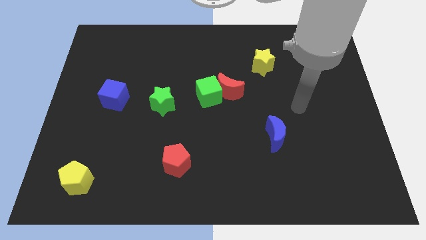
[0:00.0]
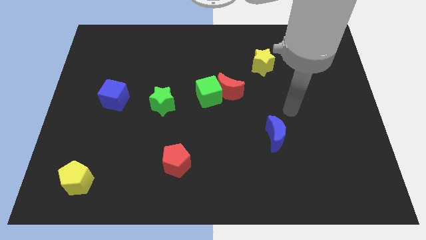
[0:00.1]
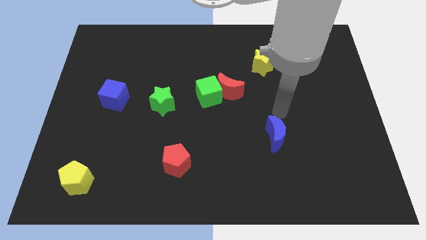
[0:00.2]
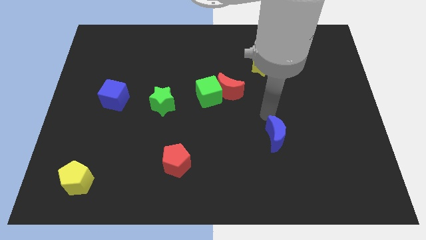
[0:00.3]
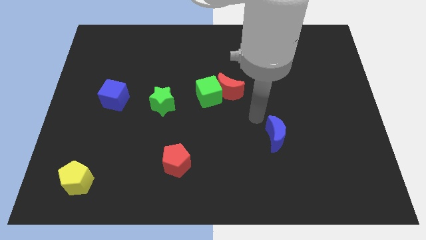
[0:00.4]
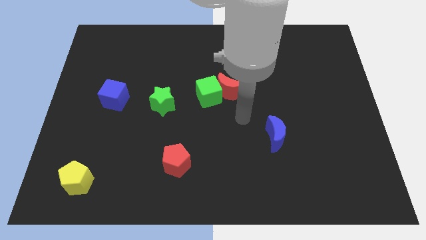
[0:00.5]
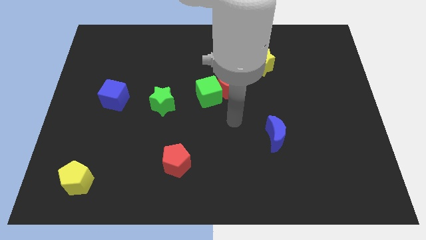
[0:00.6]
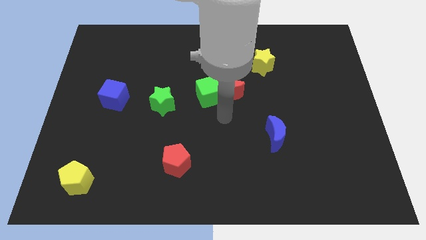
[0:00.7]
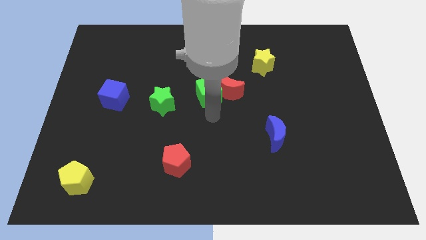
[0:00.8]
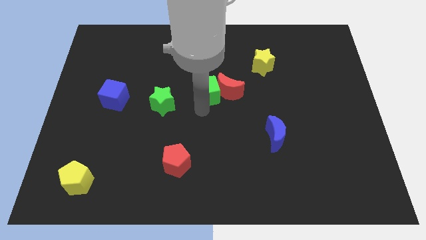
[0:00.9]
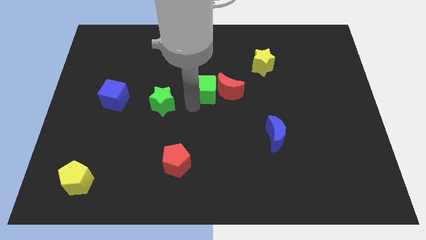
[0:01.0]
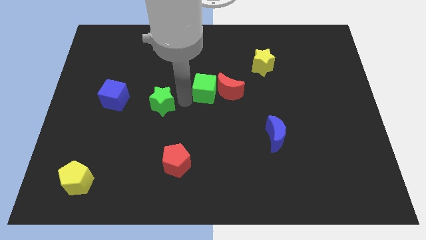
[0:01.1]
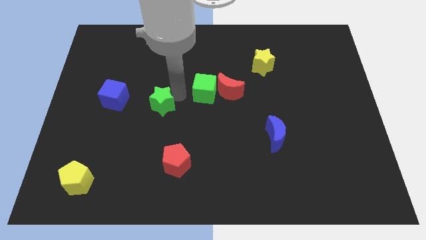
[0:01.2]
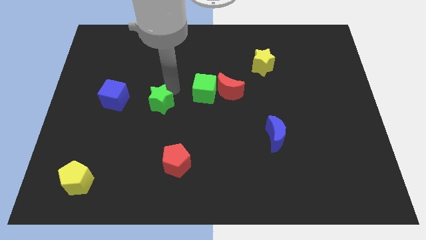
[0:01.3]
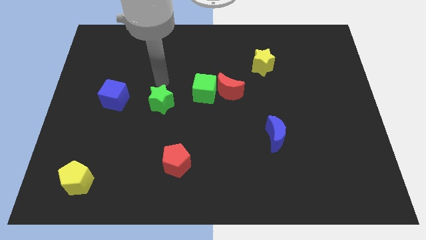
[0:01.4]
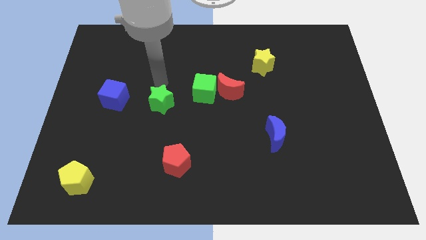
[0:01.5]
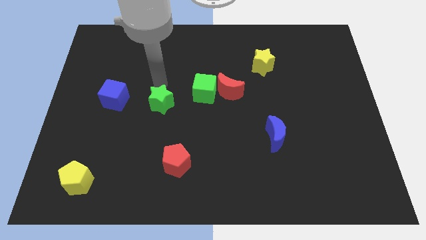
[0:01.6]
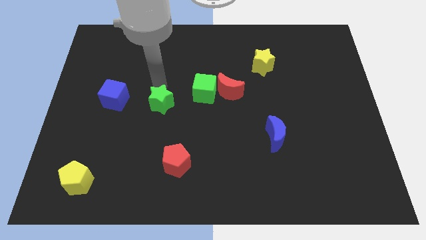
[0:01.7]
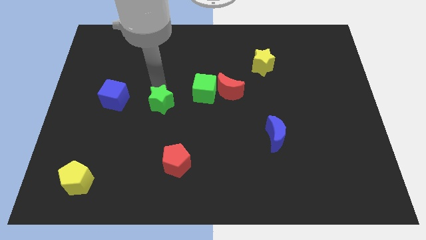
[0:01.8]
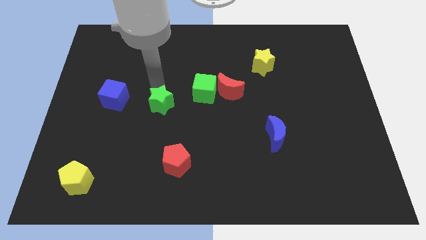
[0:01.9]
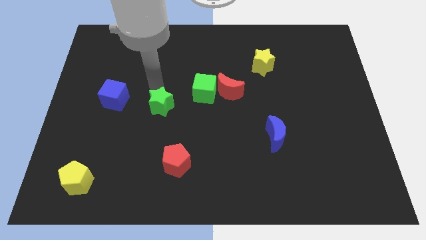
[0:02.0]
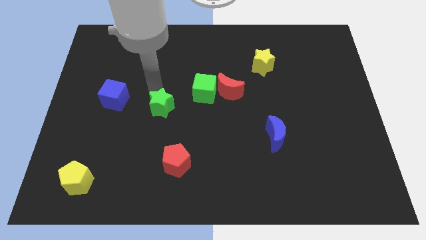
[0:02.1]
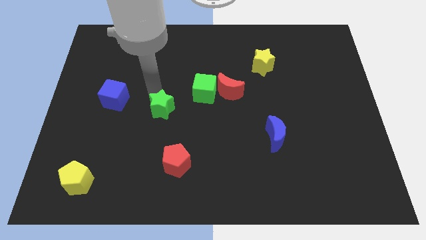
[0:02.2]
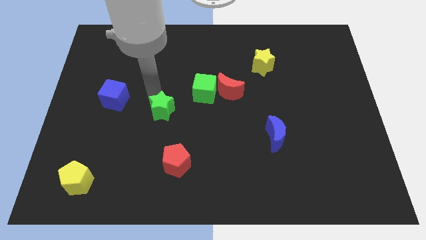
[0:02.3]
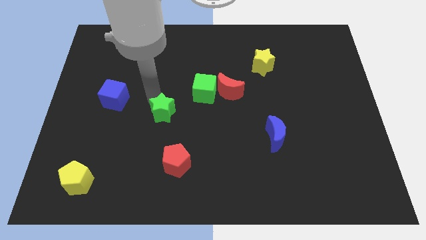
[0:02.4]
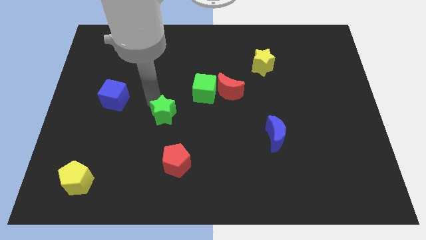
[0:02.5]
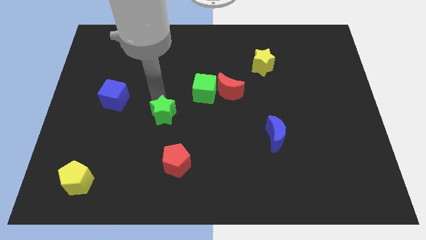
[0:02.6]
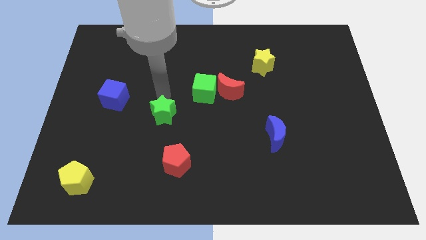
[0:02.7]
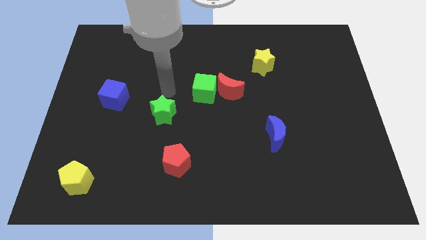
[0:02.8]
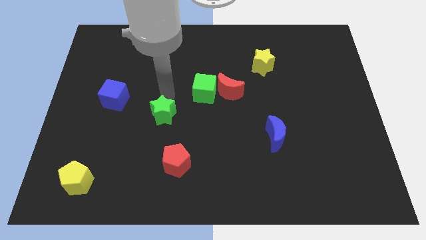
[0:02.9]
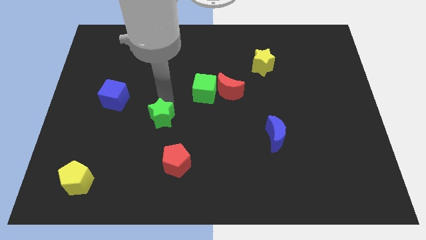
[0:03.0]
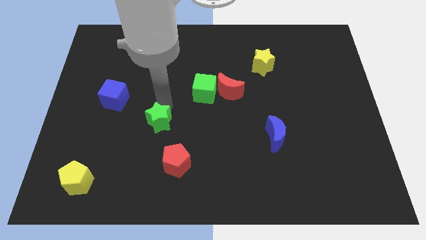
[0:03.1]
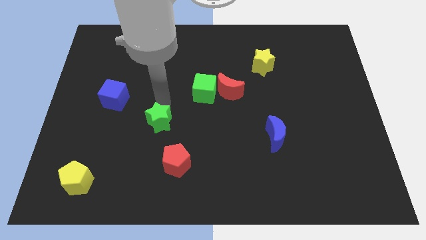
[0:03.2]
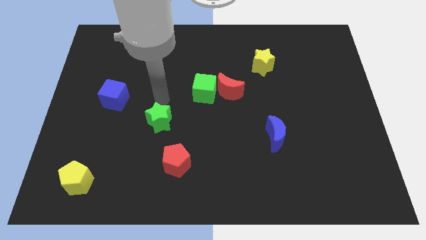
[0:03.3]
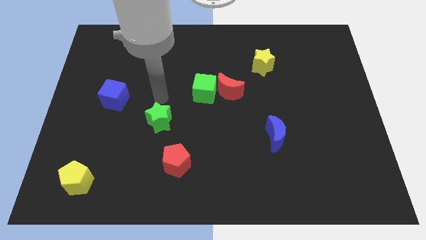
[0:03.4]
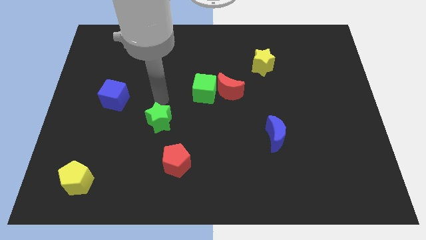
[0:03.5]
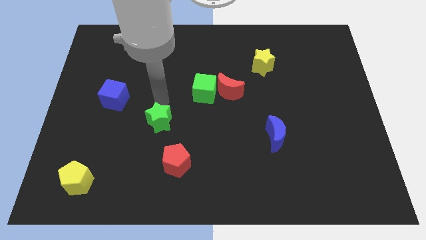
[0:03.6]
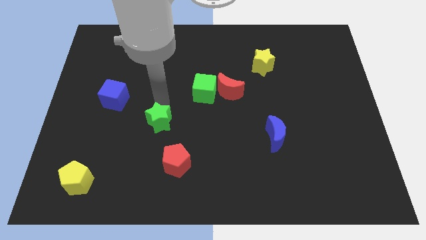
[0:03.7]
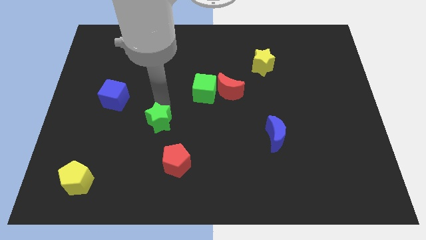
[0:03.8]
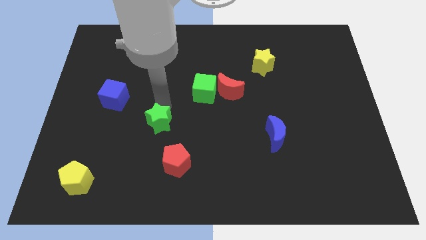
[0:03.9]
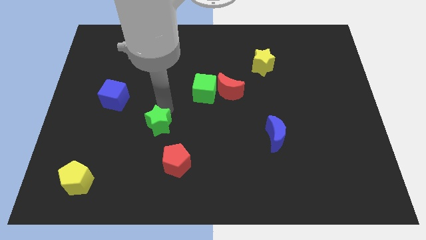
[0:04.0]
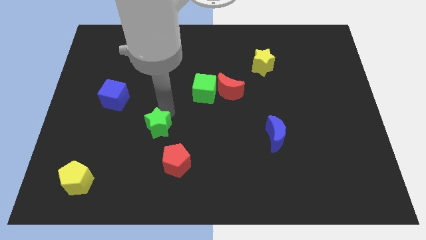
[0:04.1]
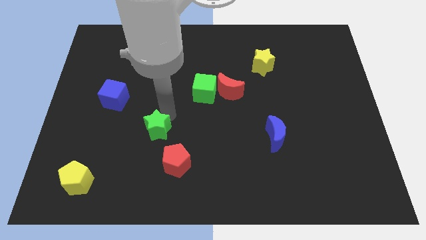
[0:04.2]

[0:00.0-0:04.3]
move the green star somewhat downwards

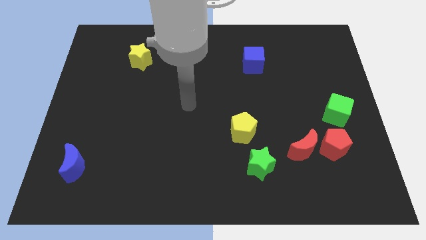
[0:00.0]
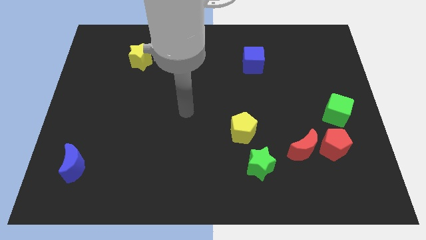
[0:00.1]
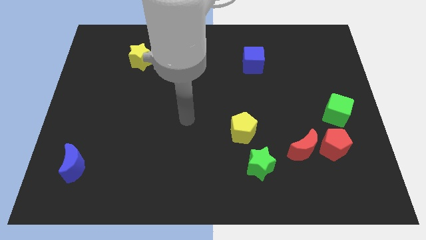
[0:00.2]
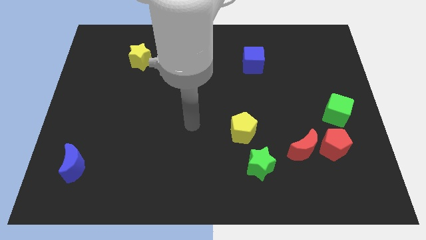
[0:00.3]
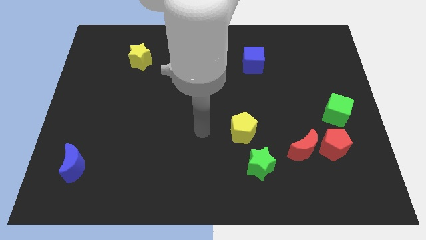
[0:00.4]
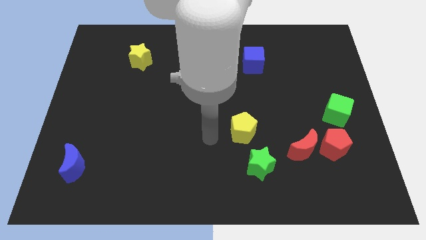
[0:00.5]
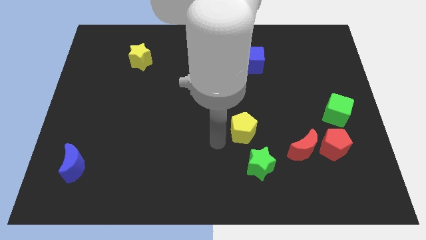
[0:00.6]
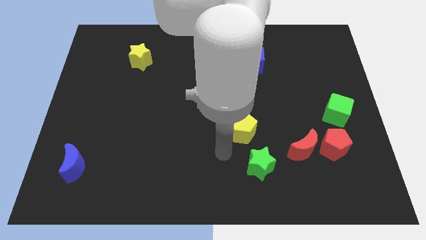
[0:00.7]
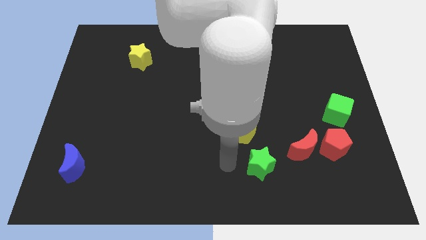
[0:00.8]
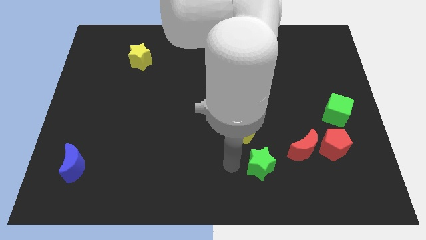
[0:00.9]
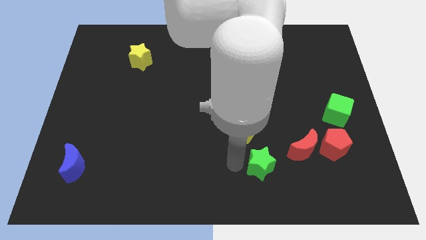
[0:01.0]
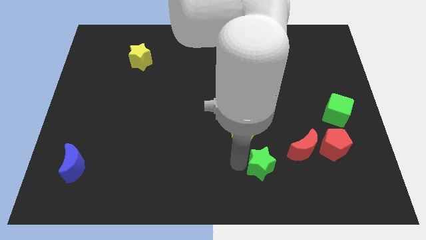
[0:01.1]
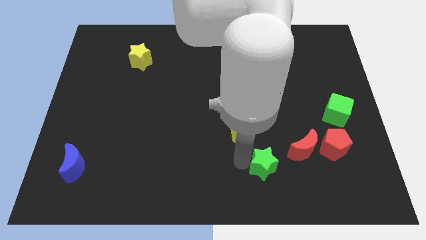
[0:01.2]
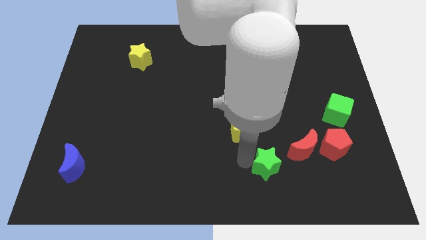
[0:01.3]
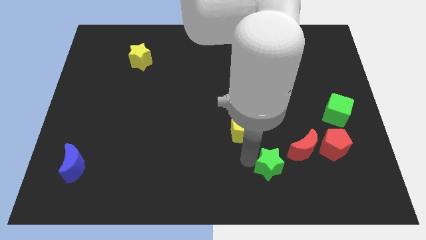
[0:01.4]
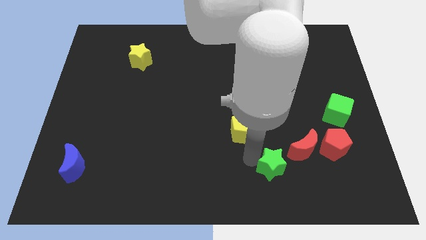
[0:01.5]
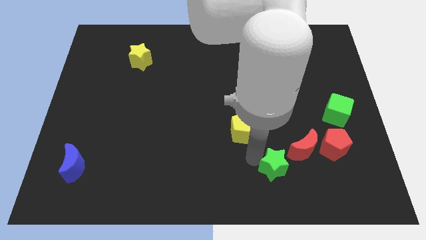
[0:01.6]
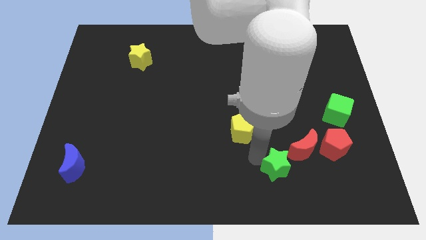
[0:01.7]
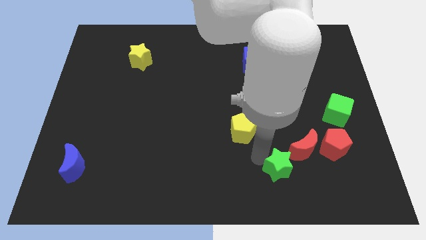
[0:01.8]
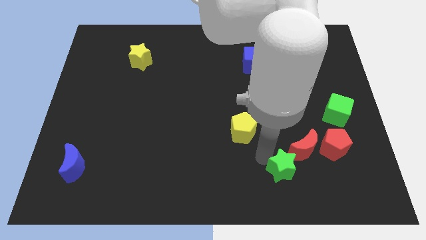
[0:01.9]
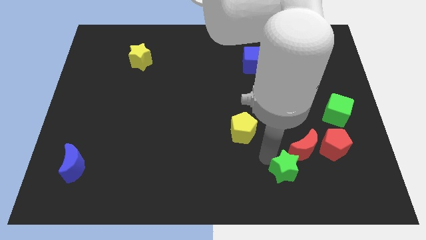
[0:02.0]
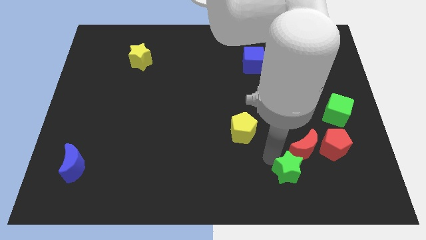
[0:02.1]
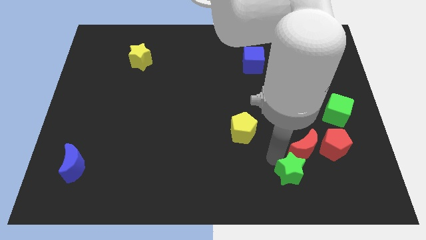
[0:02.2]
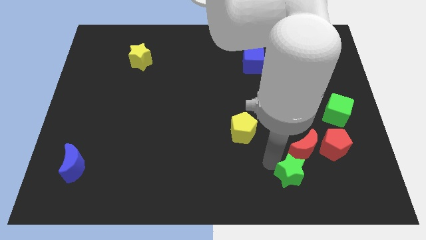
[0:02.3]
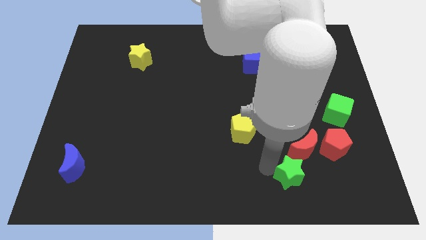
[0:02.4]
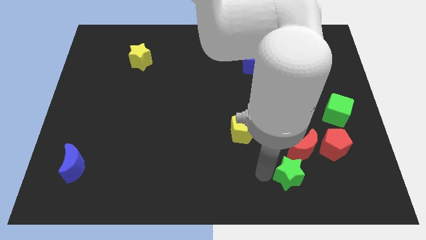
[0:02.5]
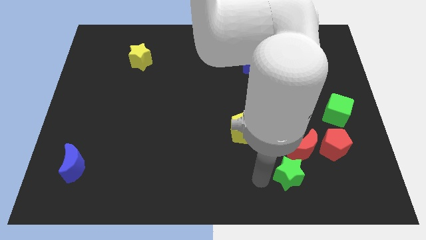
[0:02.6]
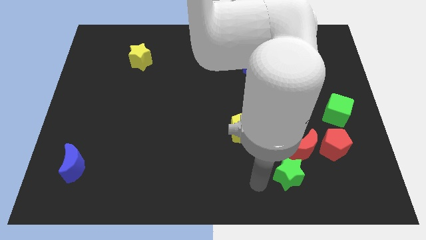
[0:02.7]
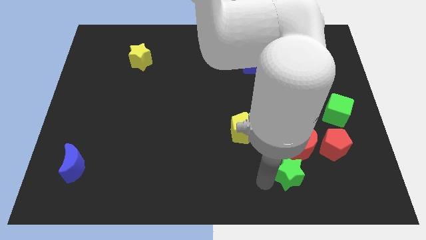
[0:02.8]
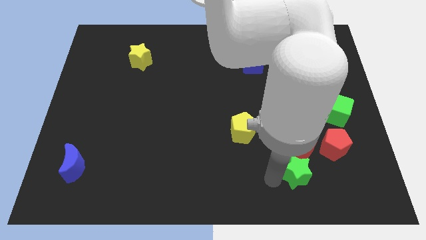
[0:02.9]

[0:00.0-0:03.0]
slightly slide the green star to the right

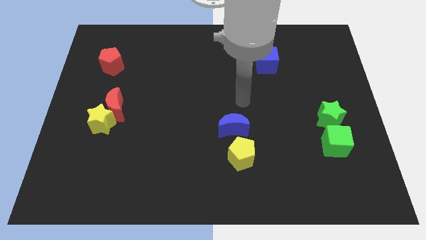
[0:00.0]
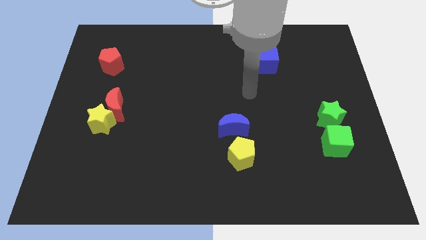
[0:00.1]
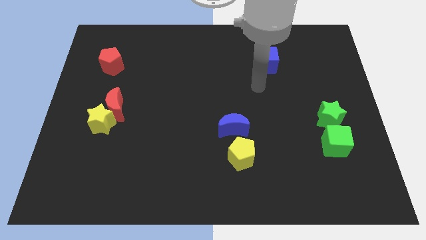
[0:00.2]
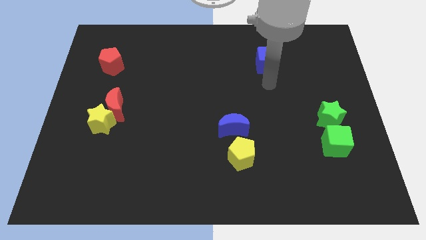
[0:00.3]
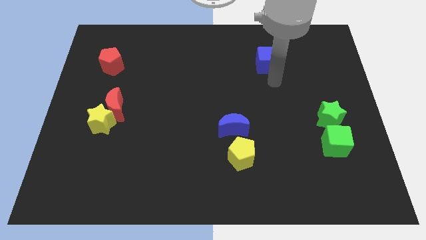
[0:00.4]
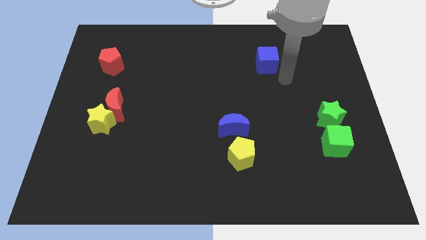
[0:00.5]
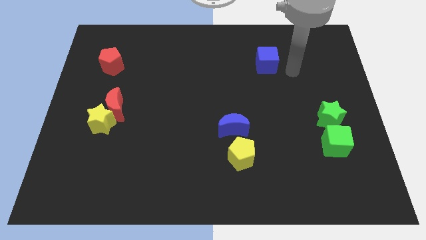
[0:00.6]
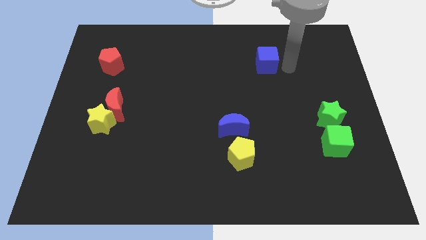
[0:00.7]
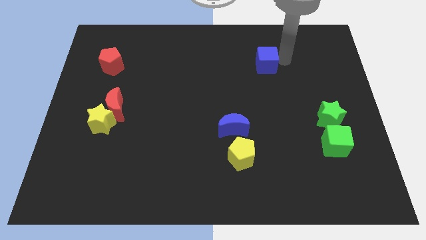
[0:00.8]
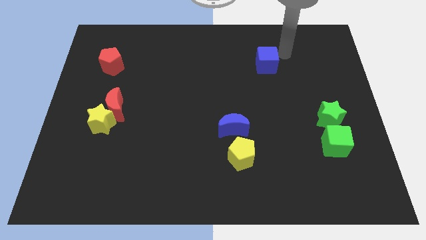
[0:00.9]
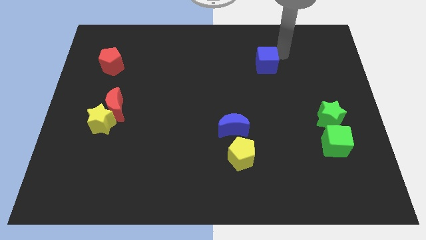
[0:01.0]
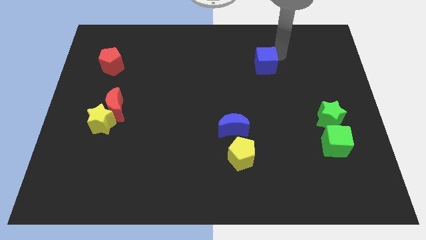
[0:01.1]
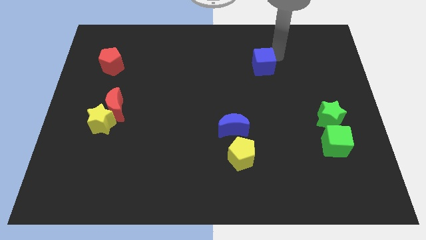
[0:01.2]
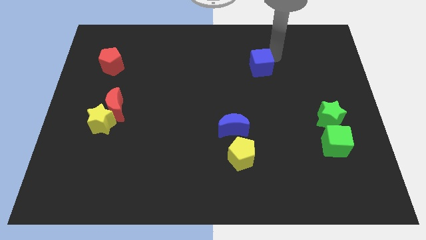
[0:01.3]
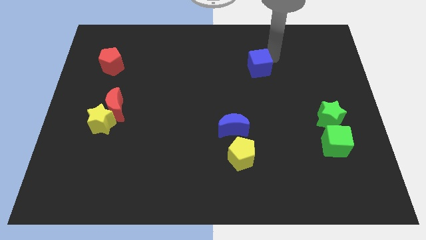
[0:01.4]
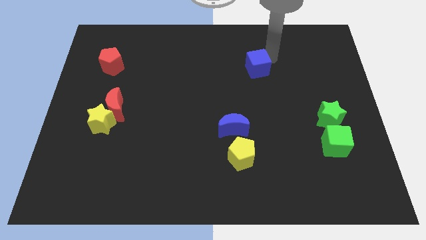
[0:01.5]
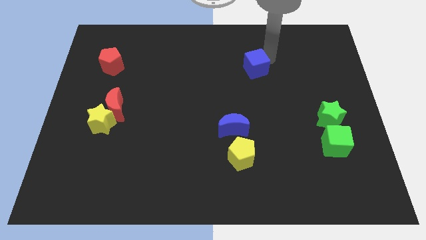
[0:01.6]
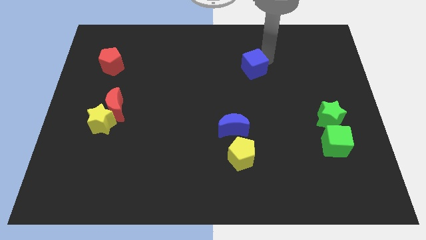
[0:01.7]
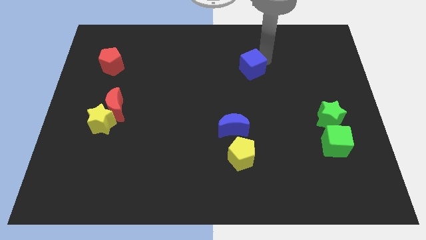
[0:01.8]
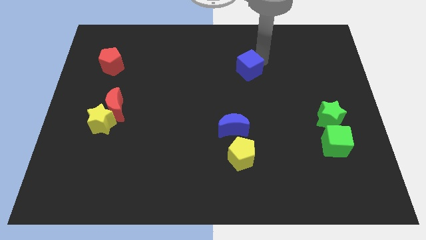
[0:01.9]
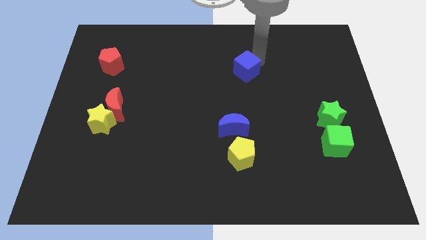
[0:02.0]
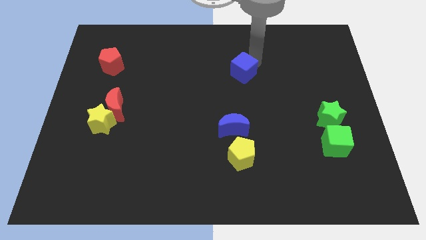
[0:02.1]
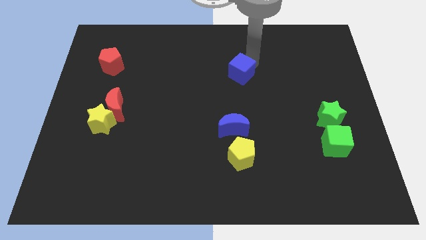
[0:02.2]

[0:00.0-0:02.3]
slide the blue cube a bit diagonally downwards and left
